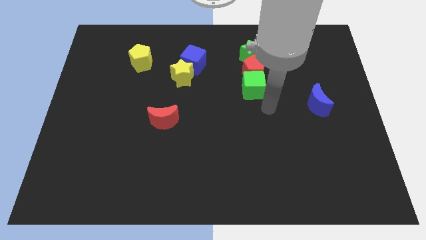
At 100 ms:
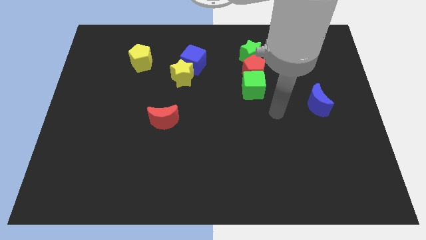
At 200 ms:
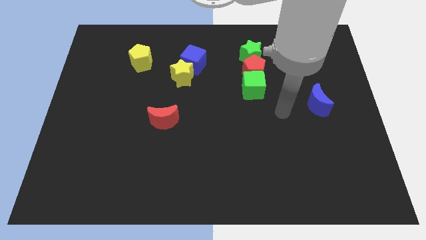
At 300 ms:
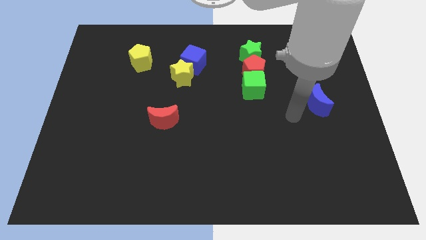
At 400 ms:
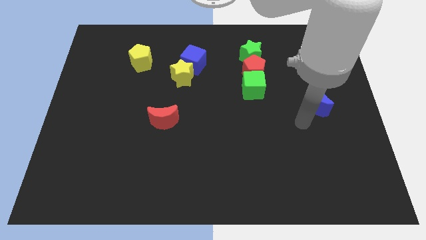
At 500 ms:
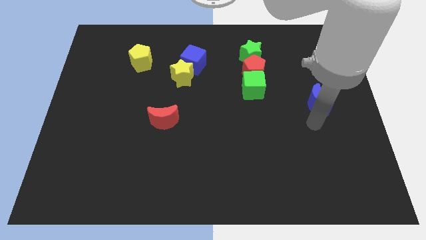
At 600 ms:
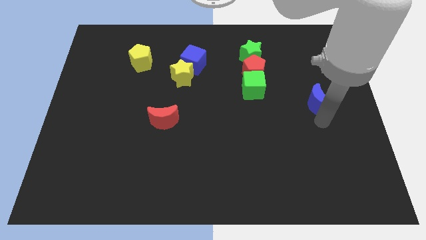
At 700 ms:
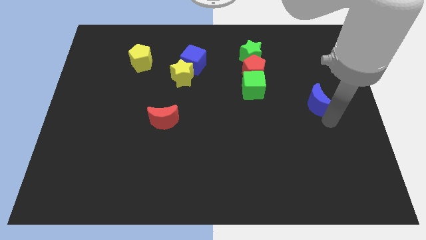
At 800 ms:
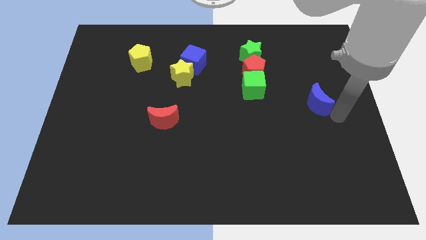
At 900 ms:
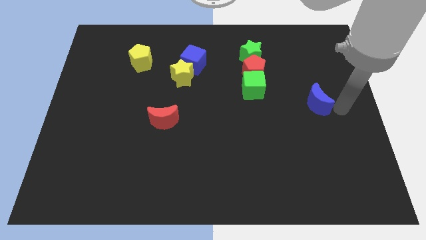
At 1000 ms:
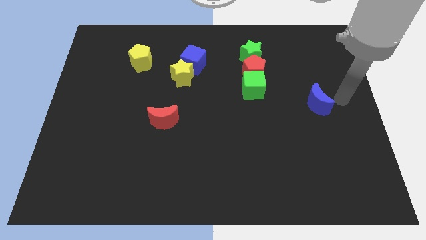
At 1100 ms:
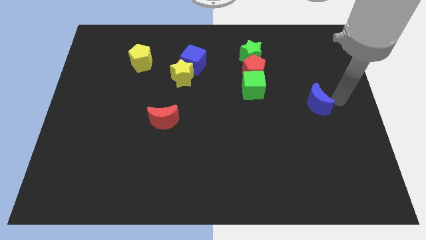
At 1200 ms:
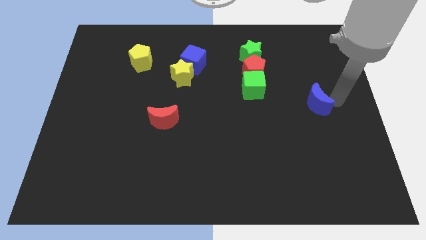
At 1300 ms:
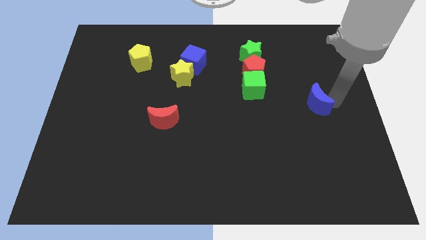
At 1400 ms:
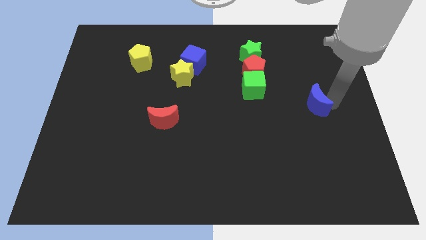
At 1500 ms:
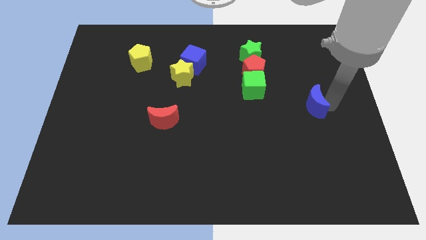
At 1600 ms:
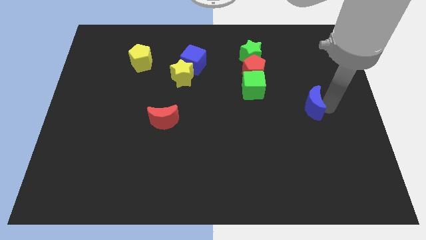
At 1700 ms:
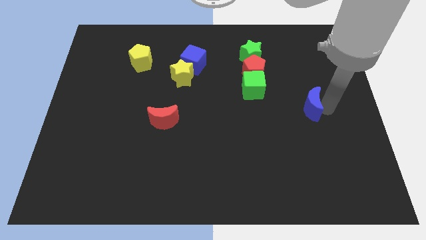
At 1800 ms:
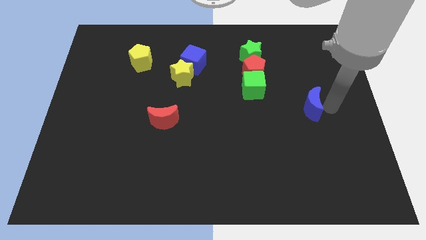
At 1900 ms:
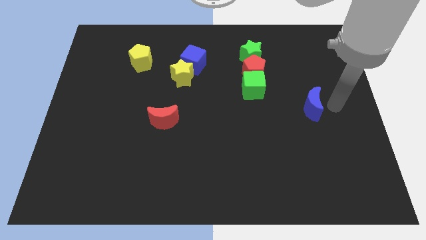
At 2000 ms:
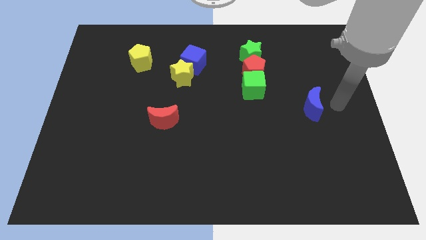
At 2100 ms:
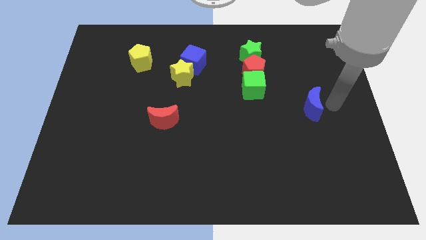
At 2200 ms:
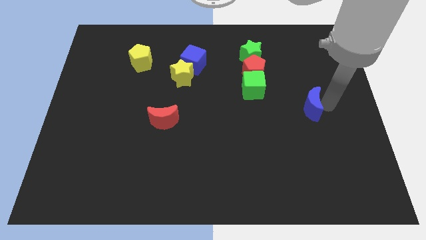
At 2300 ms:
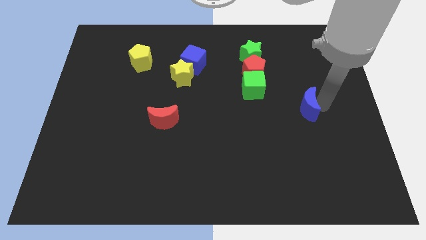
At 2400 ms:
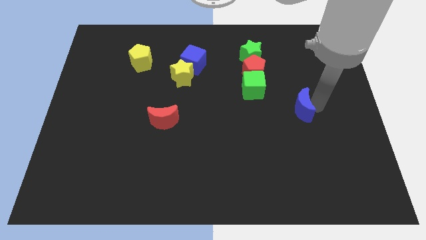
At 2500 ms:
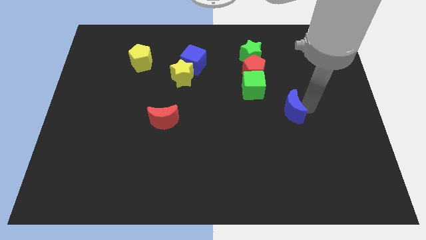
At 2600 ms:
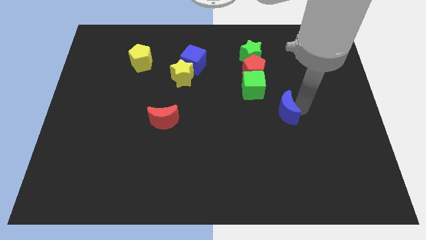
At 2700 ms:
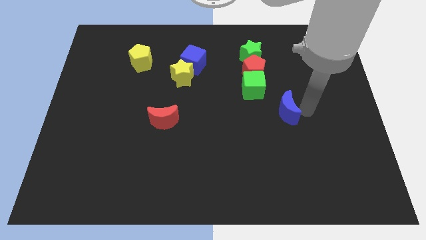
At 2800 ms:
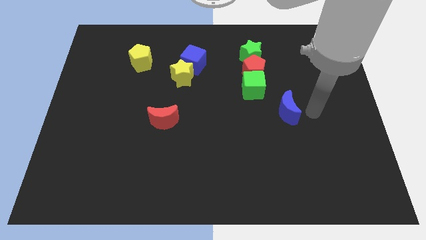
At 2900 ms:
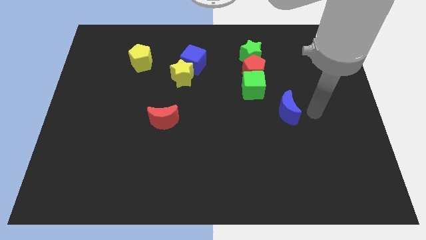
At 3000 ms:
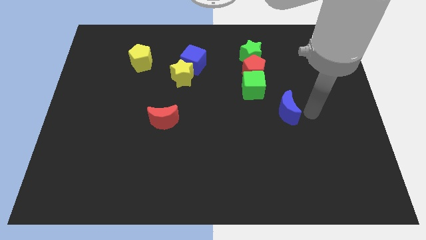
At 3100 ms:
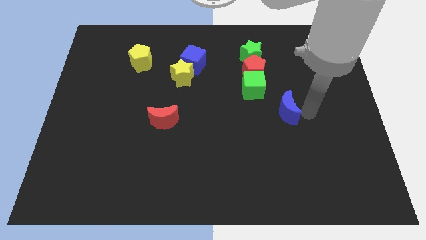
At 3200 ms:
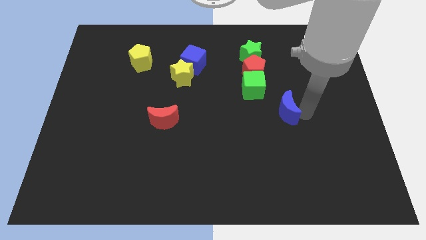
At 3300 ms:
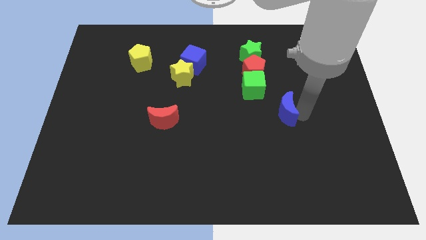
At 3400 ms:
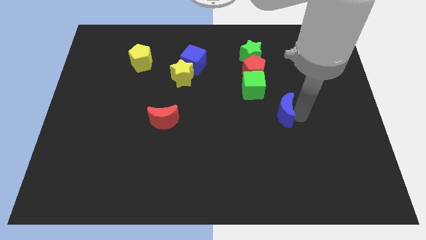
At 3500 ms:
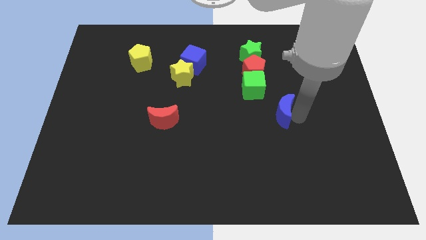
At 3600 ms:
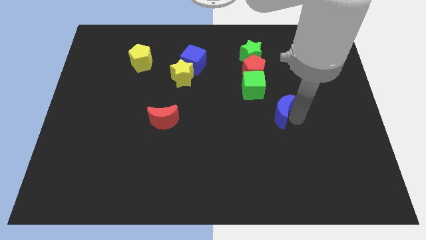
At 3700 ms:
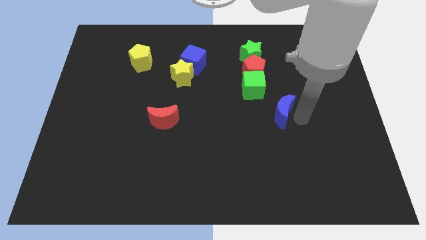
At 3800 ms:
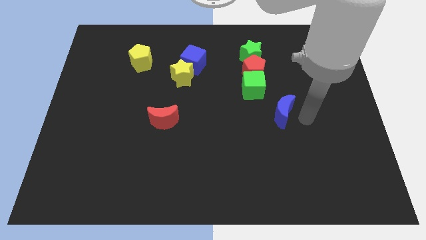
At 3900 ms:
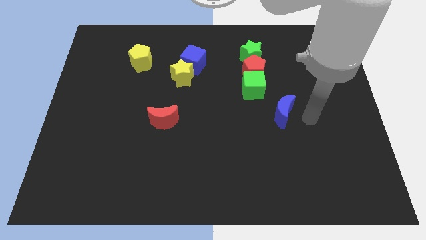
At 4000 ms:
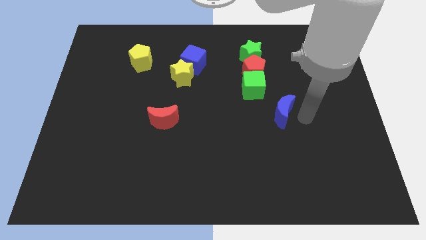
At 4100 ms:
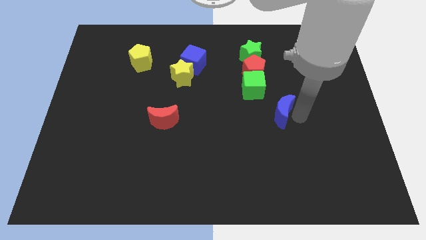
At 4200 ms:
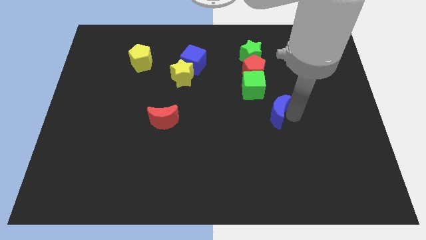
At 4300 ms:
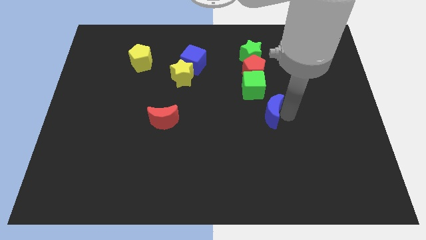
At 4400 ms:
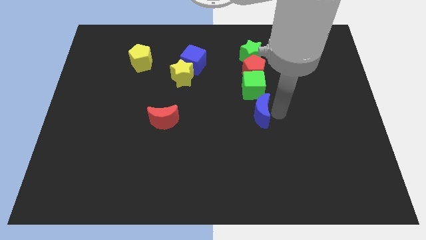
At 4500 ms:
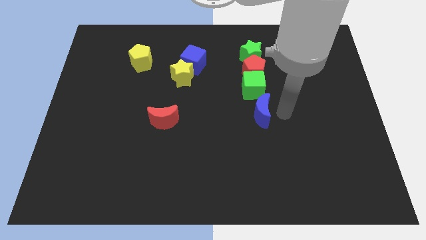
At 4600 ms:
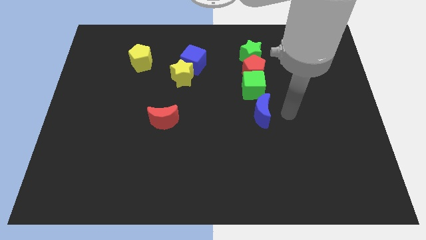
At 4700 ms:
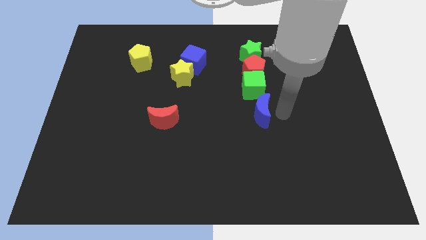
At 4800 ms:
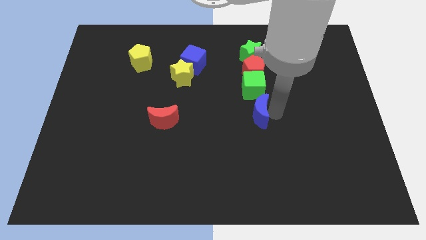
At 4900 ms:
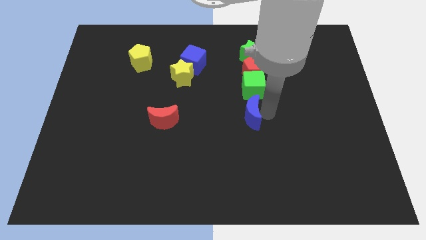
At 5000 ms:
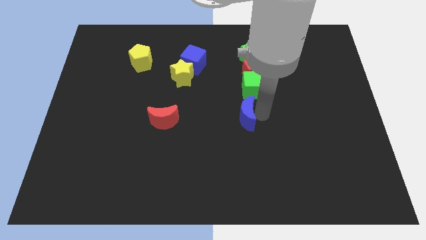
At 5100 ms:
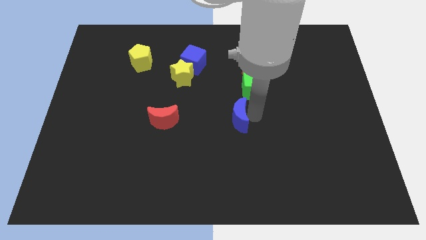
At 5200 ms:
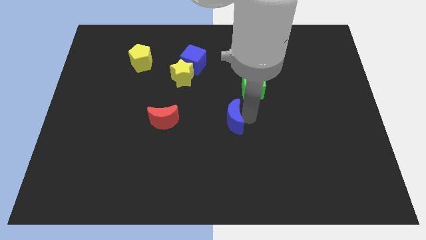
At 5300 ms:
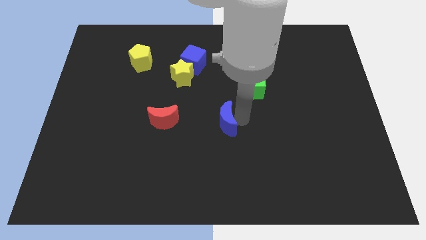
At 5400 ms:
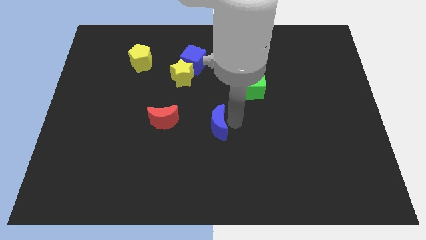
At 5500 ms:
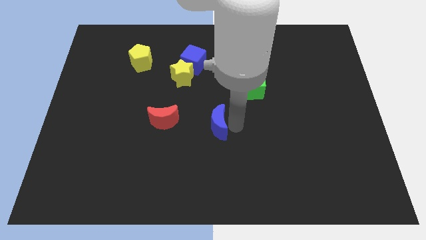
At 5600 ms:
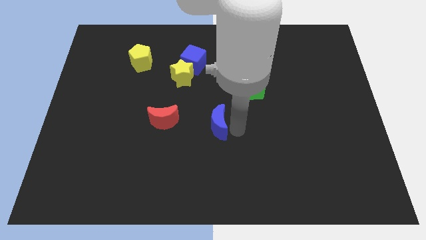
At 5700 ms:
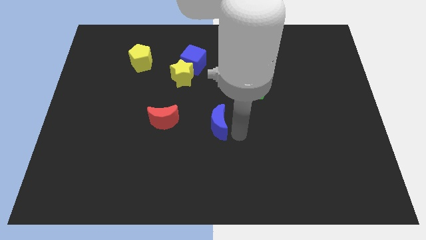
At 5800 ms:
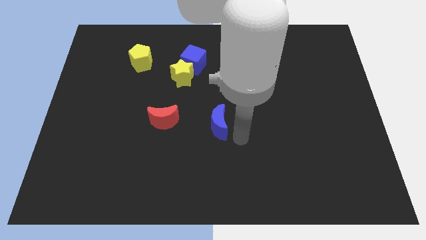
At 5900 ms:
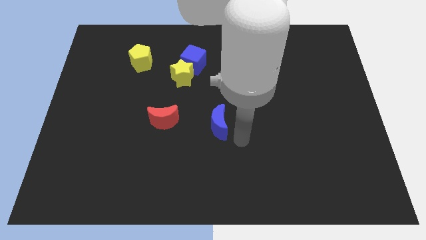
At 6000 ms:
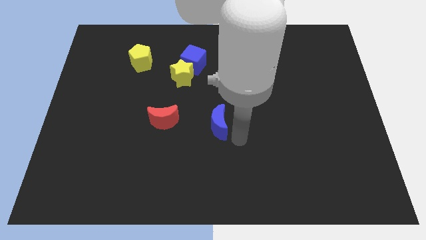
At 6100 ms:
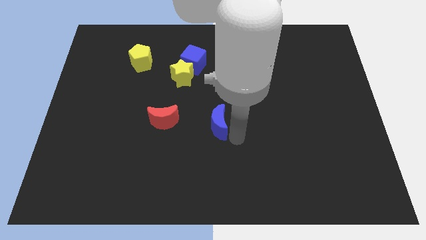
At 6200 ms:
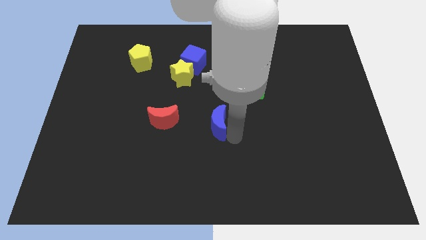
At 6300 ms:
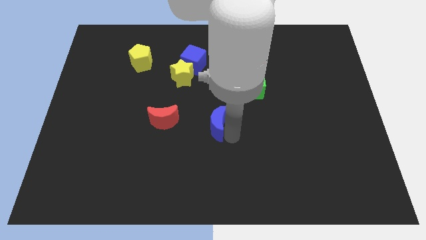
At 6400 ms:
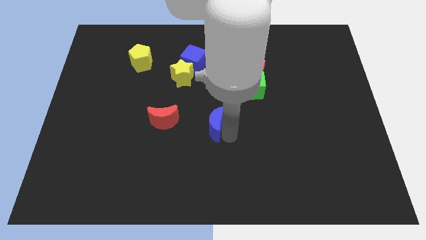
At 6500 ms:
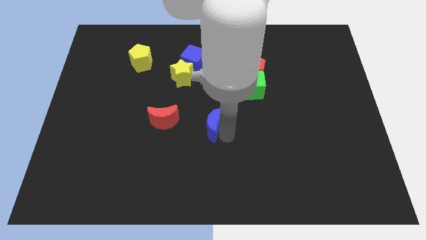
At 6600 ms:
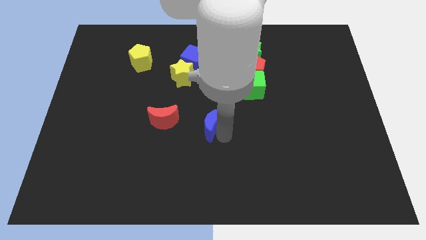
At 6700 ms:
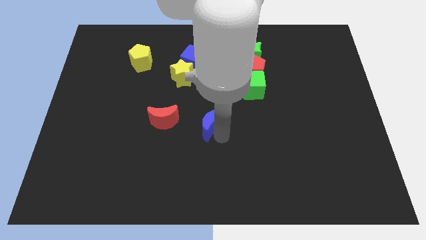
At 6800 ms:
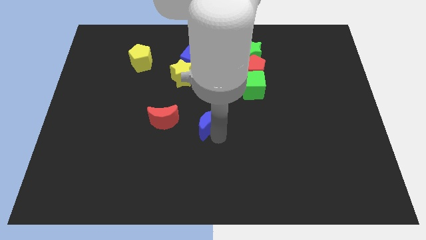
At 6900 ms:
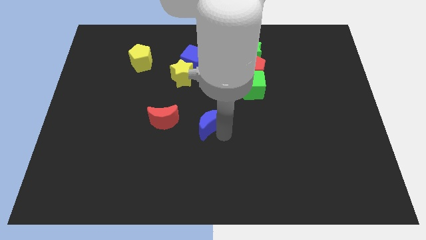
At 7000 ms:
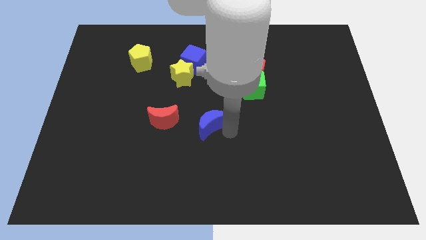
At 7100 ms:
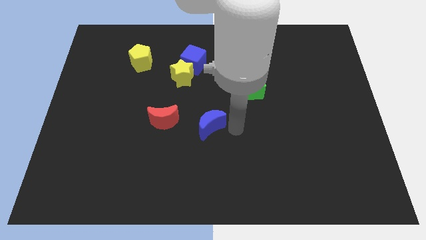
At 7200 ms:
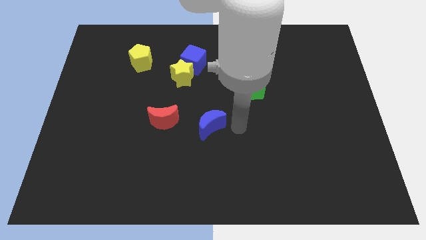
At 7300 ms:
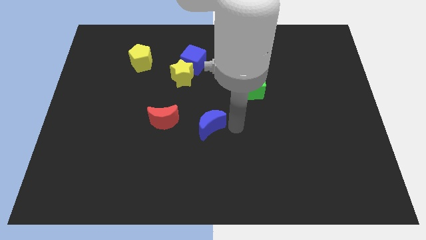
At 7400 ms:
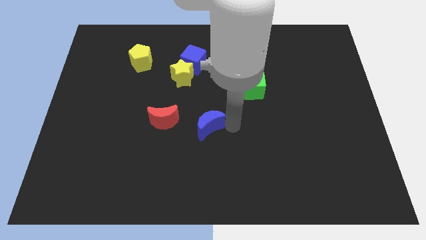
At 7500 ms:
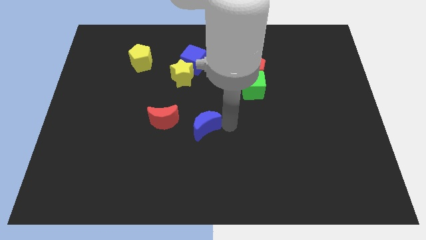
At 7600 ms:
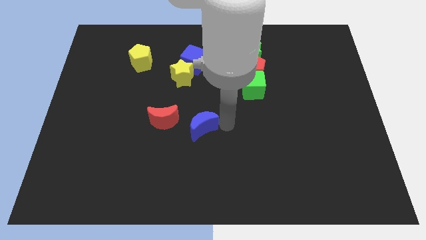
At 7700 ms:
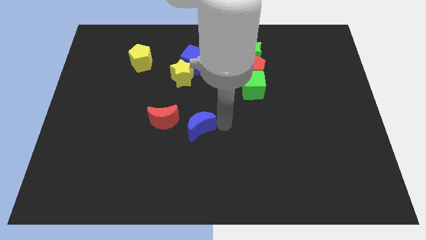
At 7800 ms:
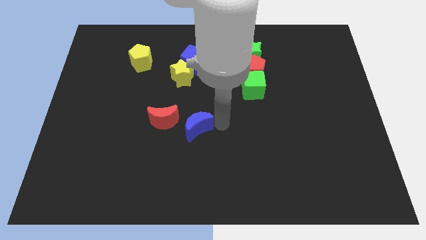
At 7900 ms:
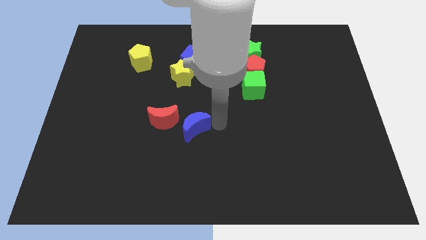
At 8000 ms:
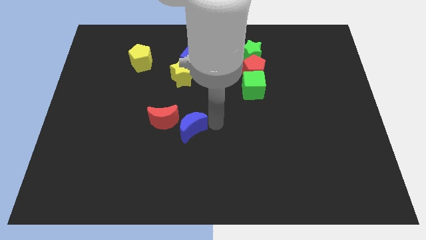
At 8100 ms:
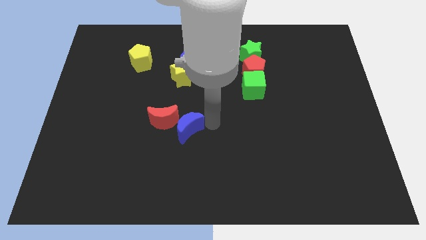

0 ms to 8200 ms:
put the blue moon close to the red moon
